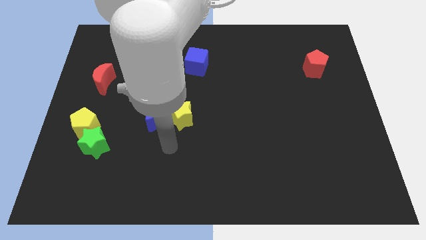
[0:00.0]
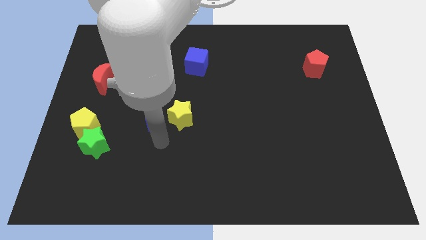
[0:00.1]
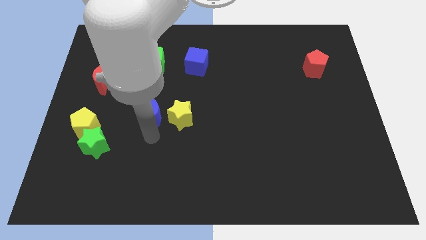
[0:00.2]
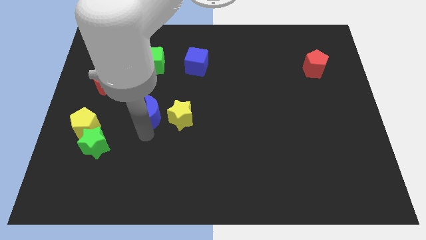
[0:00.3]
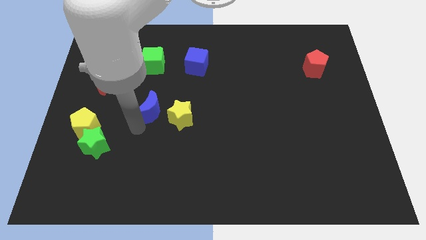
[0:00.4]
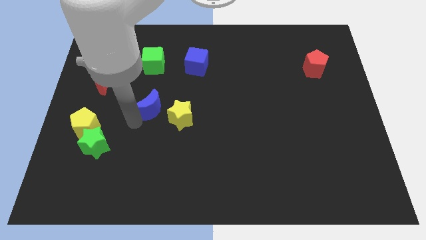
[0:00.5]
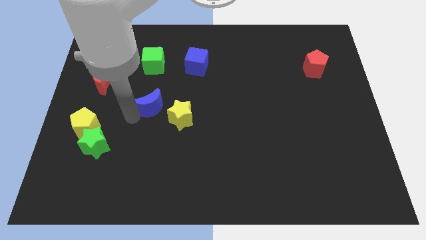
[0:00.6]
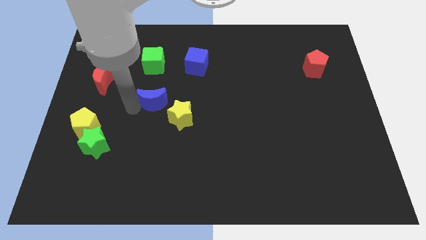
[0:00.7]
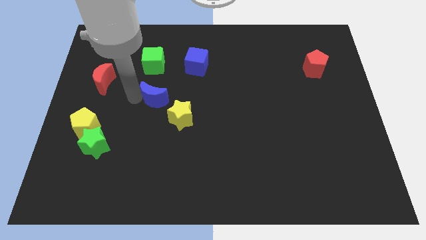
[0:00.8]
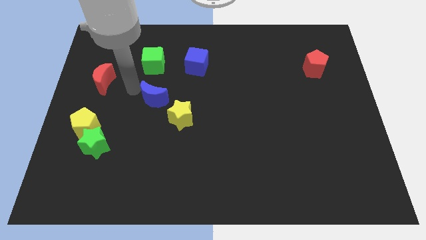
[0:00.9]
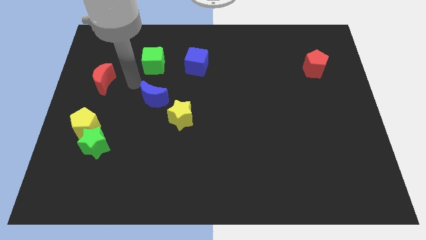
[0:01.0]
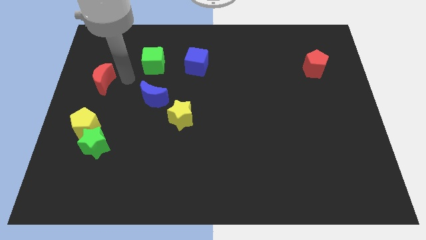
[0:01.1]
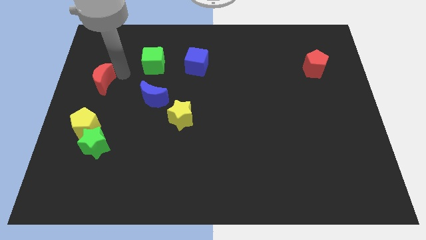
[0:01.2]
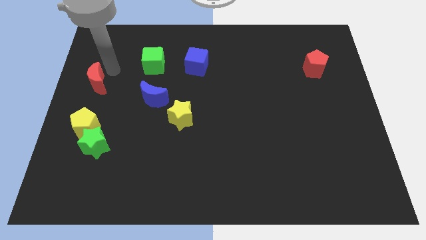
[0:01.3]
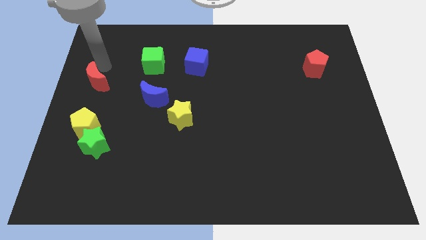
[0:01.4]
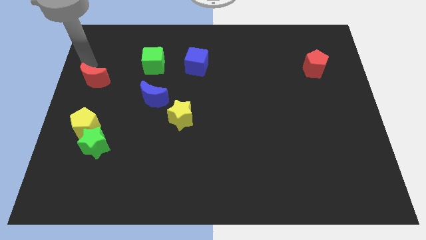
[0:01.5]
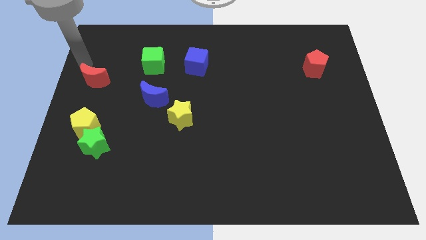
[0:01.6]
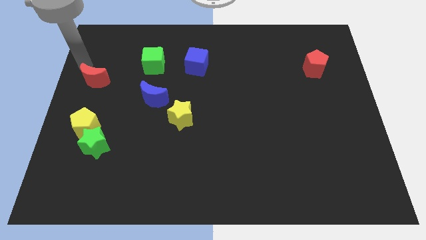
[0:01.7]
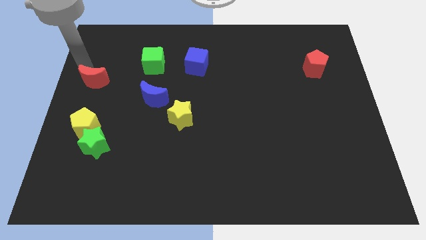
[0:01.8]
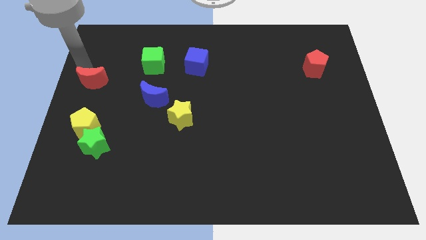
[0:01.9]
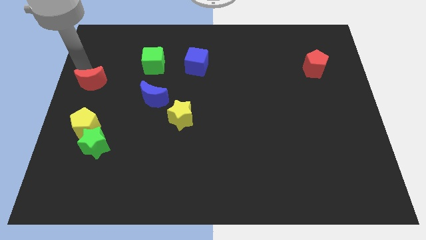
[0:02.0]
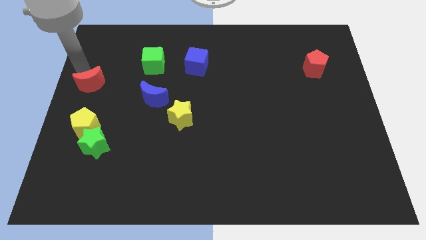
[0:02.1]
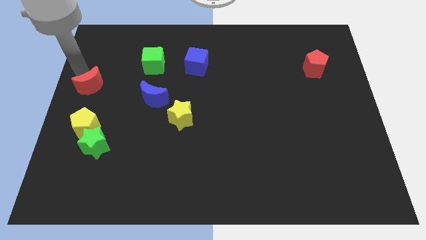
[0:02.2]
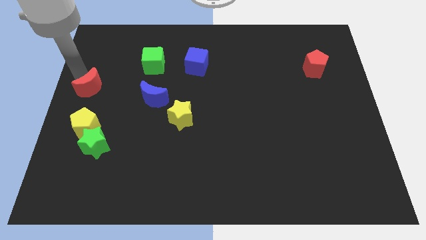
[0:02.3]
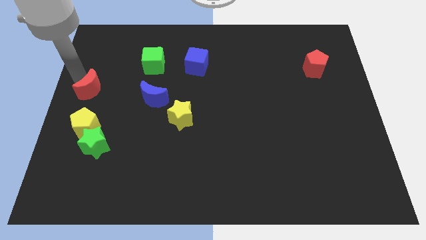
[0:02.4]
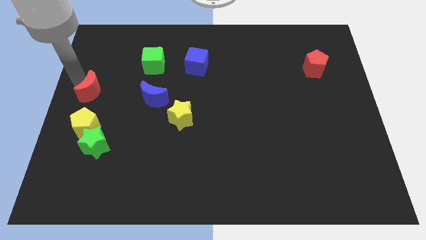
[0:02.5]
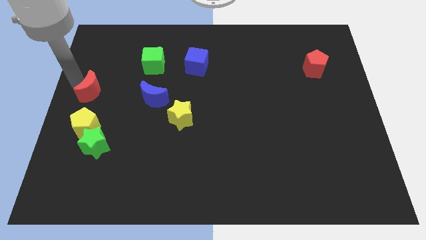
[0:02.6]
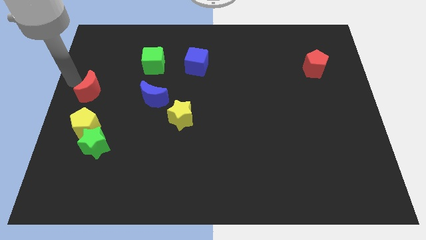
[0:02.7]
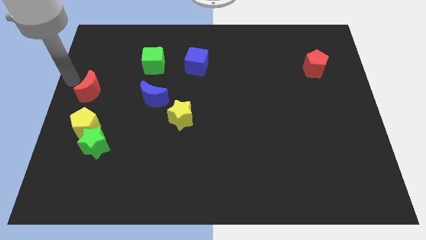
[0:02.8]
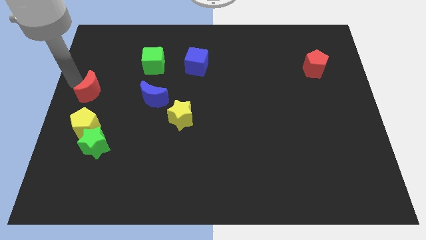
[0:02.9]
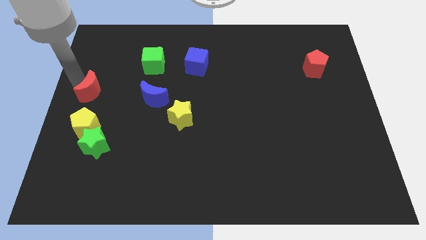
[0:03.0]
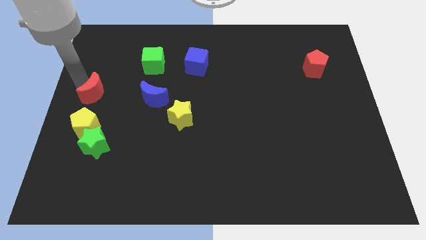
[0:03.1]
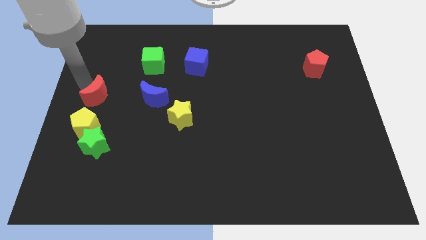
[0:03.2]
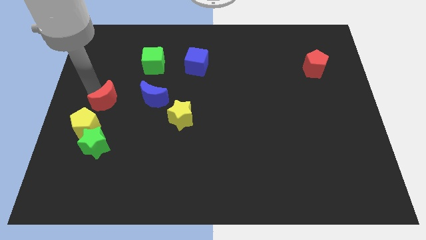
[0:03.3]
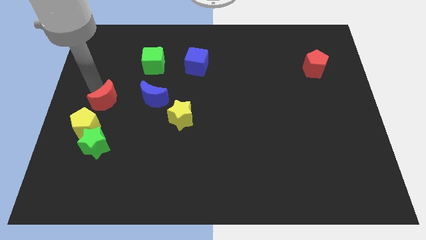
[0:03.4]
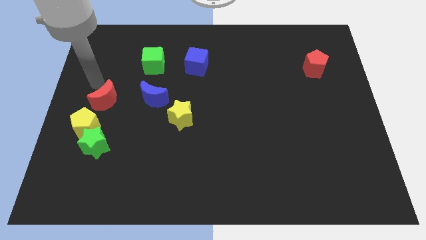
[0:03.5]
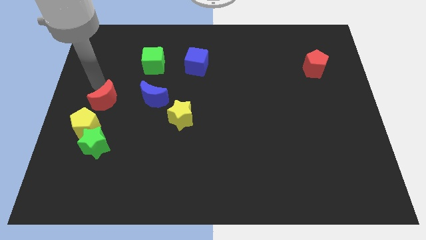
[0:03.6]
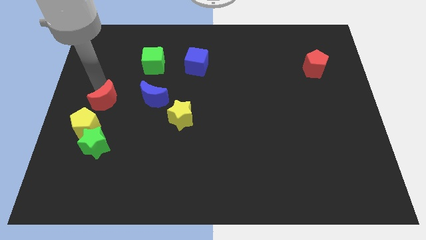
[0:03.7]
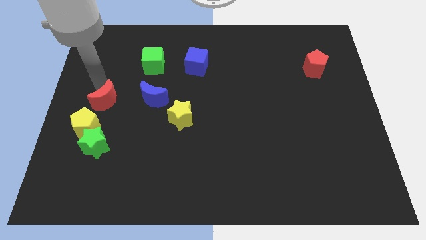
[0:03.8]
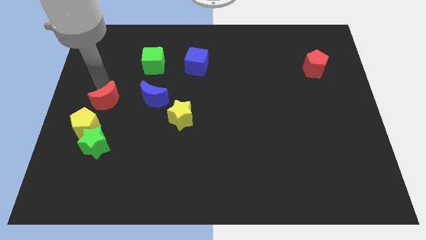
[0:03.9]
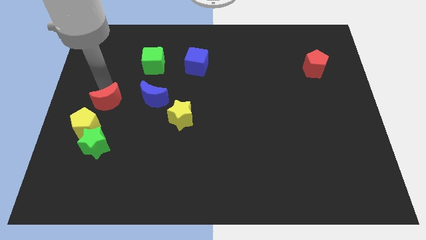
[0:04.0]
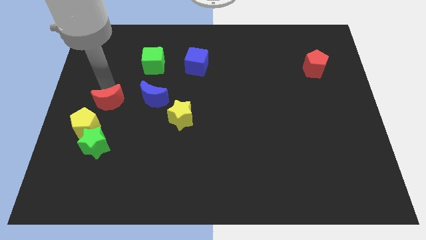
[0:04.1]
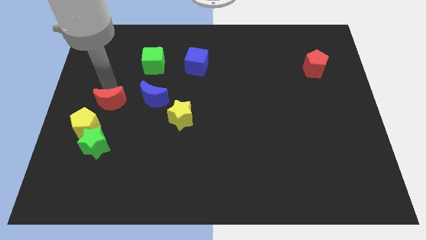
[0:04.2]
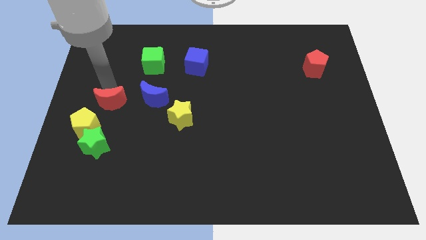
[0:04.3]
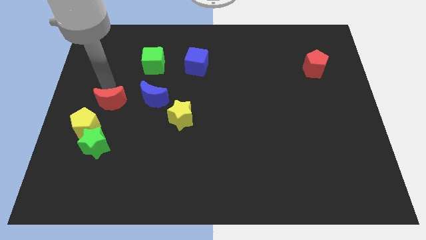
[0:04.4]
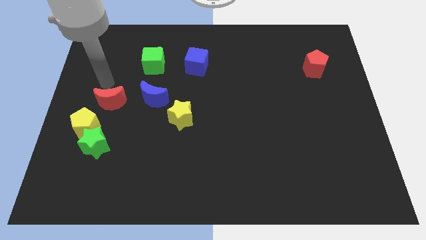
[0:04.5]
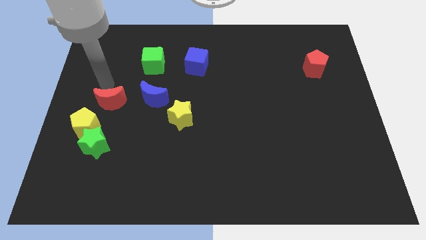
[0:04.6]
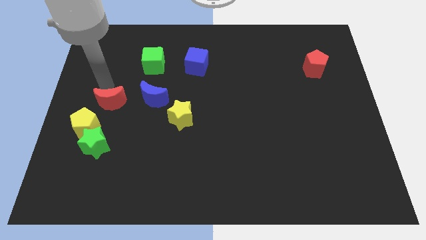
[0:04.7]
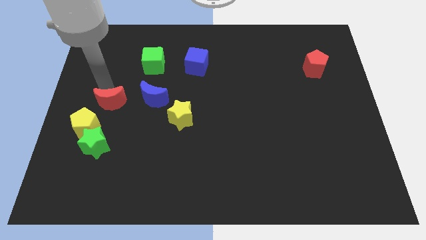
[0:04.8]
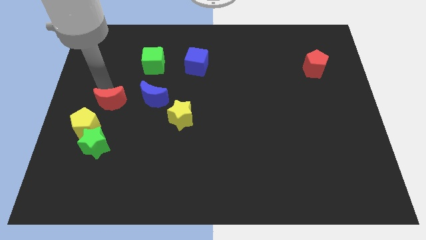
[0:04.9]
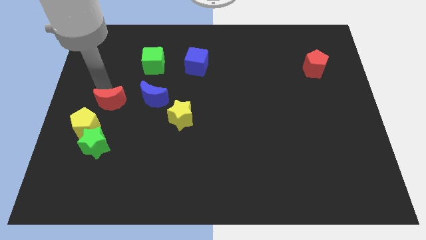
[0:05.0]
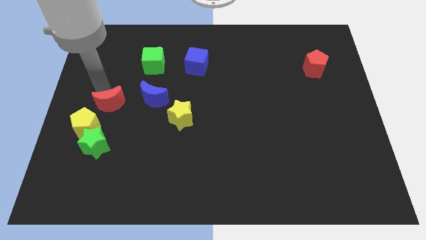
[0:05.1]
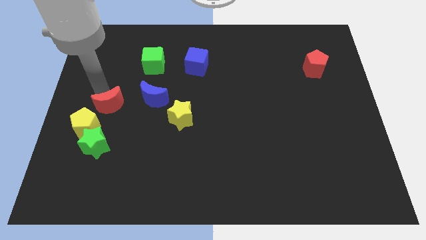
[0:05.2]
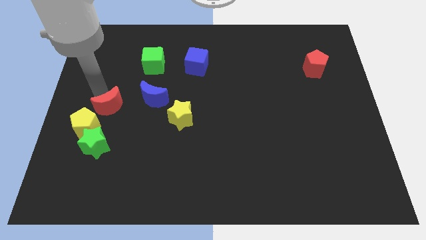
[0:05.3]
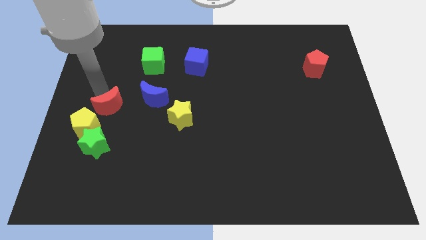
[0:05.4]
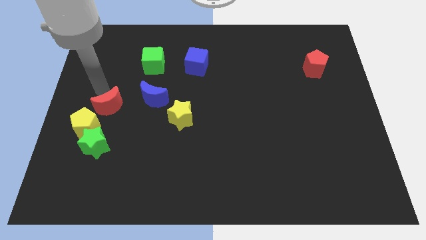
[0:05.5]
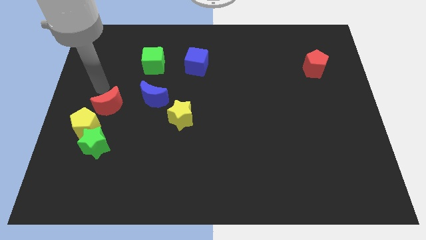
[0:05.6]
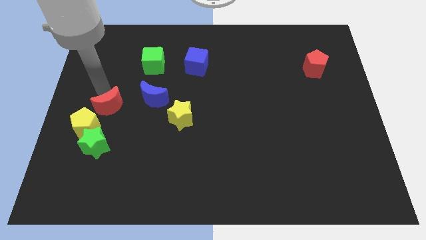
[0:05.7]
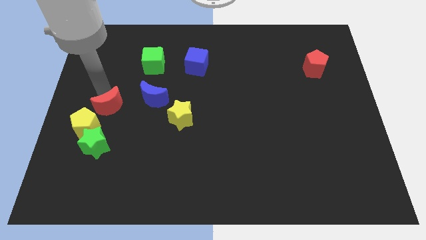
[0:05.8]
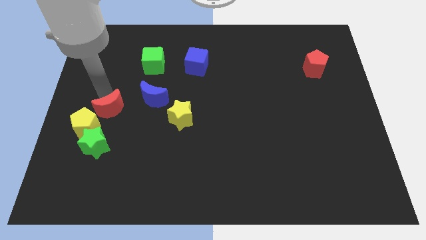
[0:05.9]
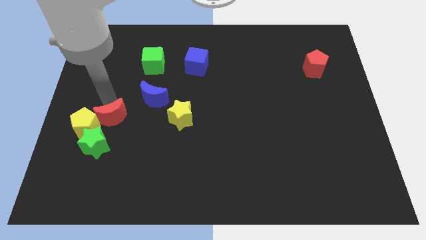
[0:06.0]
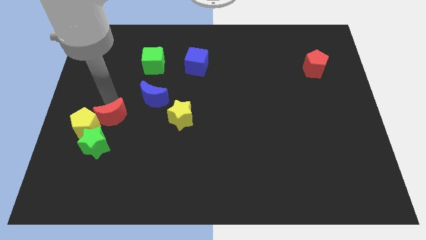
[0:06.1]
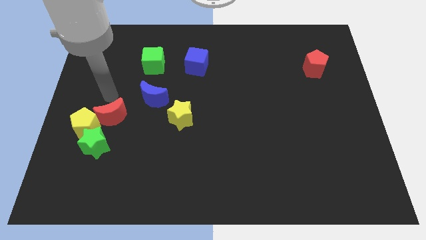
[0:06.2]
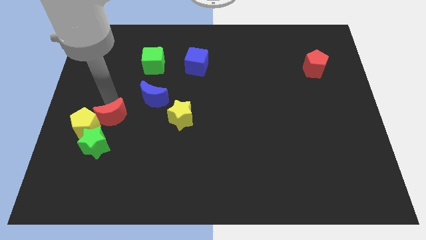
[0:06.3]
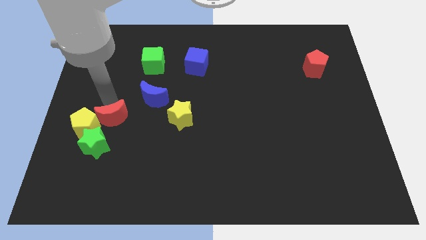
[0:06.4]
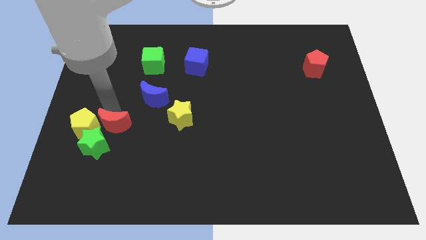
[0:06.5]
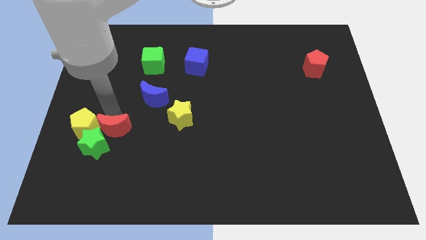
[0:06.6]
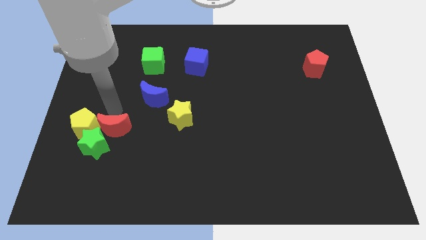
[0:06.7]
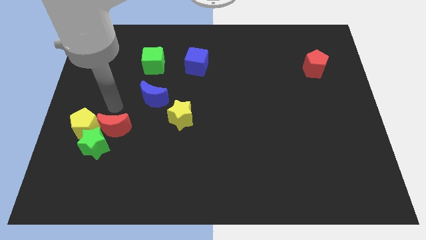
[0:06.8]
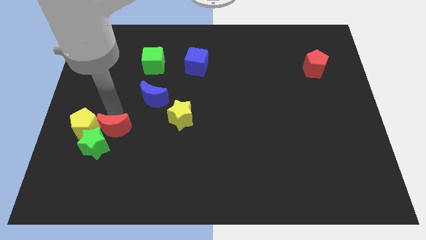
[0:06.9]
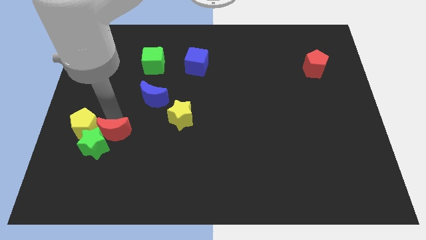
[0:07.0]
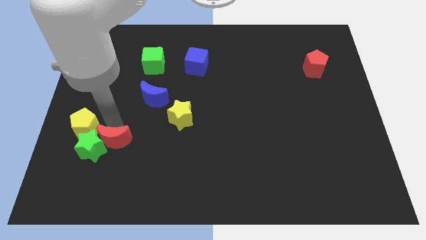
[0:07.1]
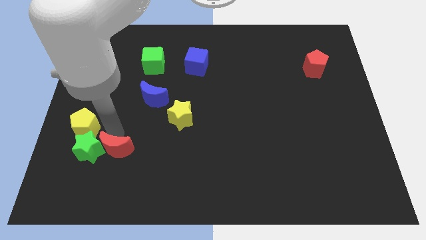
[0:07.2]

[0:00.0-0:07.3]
slide the red moon to the bottom right of the green star
